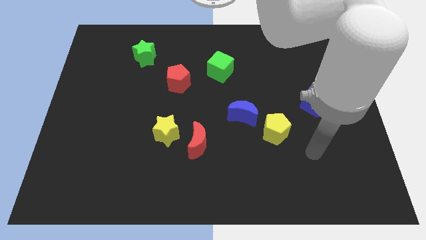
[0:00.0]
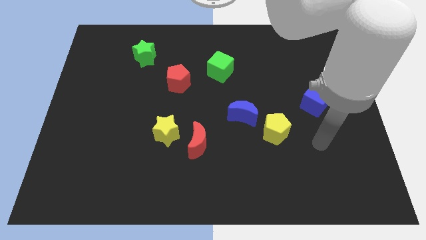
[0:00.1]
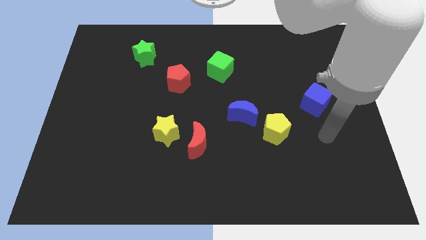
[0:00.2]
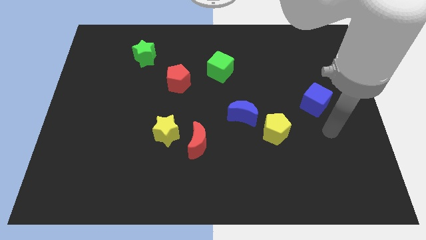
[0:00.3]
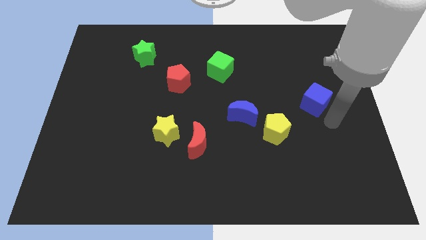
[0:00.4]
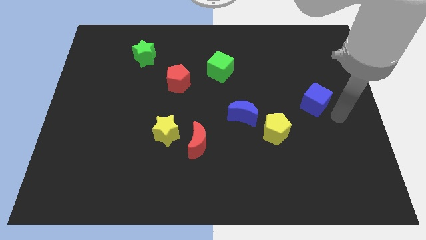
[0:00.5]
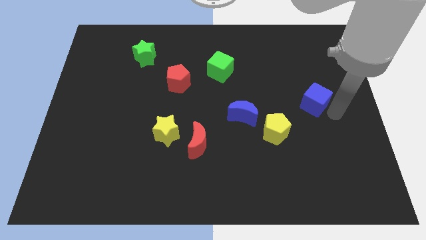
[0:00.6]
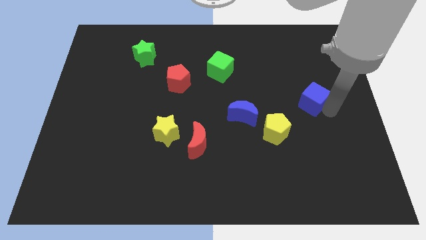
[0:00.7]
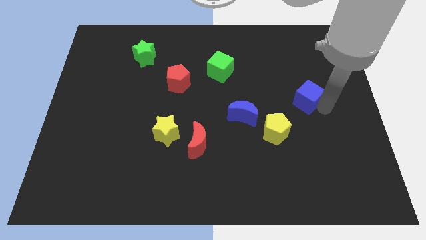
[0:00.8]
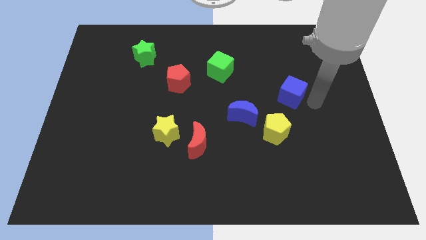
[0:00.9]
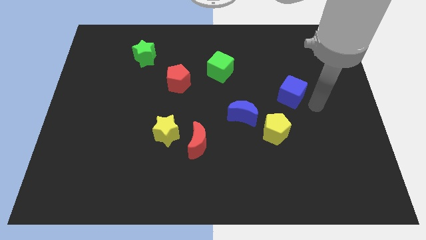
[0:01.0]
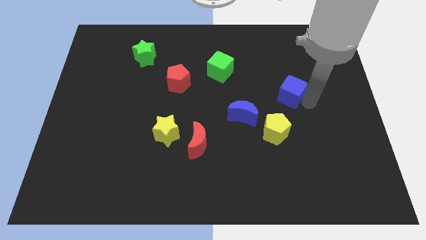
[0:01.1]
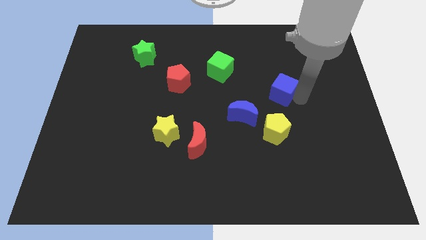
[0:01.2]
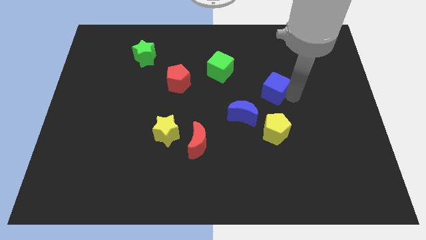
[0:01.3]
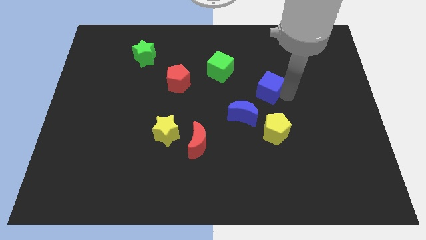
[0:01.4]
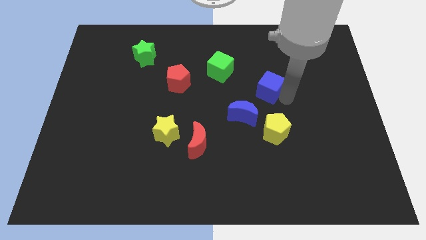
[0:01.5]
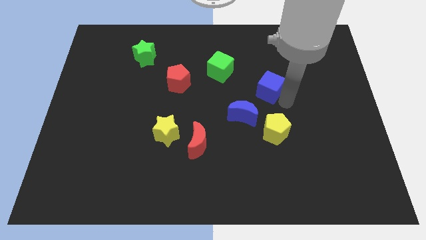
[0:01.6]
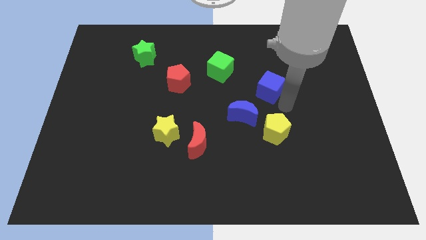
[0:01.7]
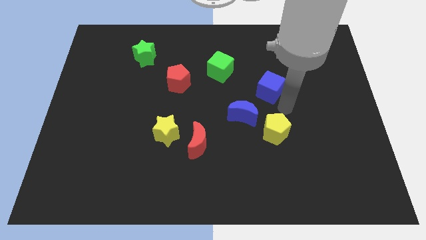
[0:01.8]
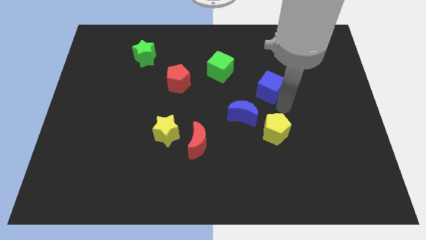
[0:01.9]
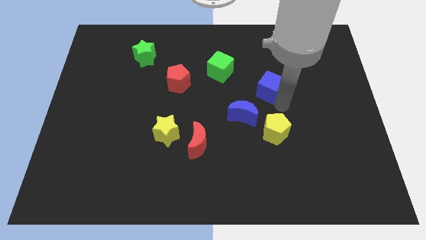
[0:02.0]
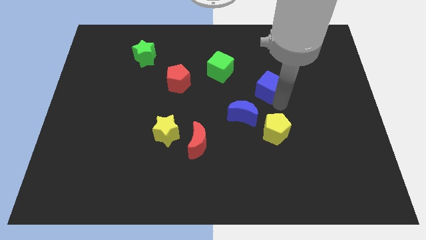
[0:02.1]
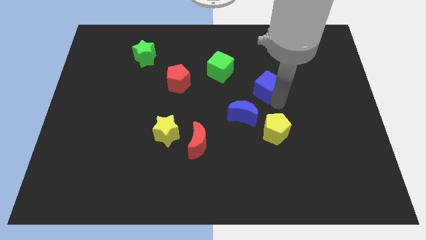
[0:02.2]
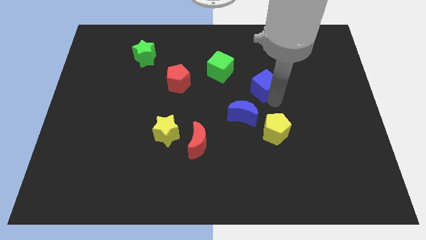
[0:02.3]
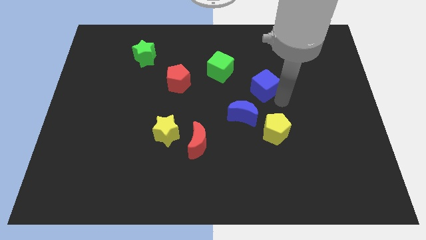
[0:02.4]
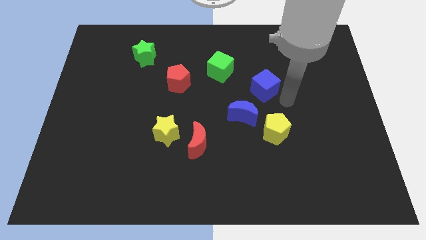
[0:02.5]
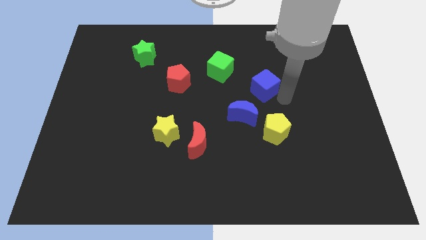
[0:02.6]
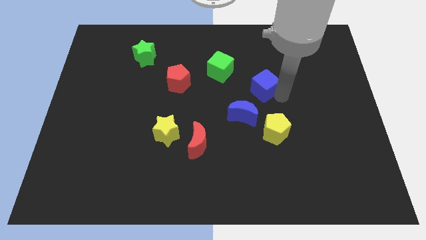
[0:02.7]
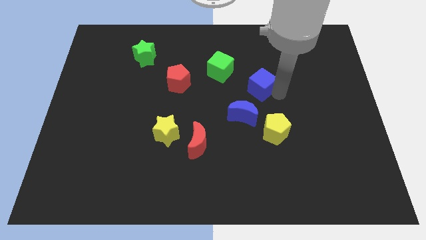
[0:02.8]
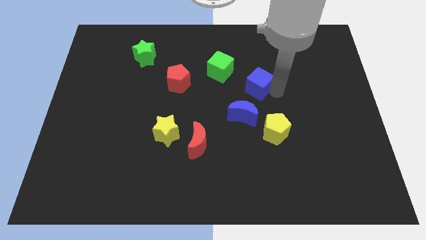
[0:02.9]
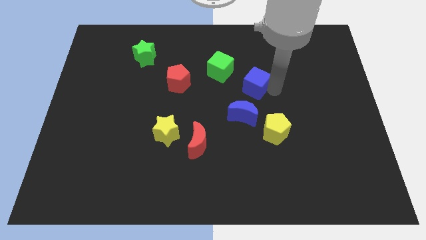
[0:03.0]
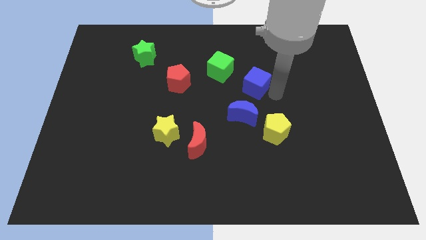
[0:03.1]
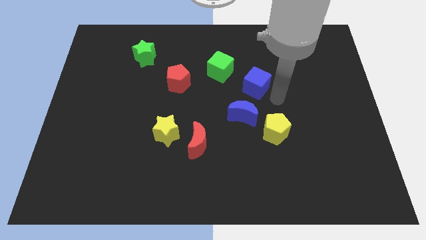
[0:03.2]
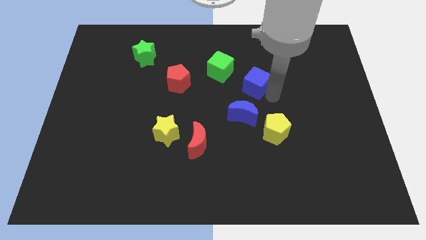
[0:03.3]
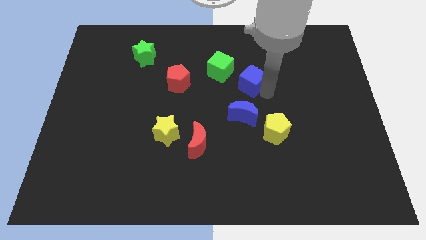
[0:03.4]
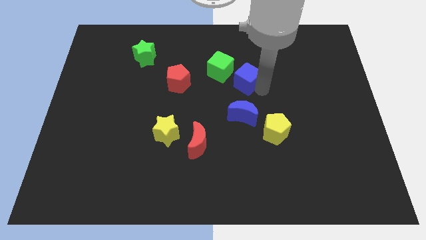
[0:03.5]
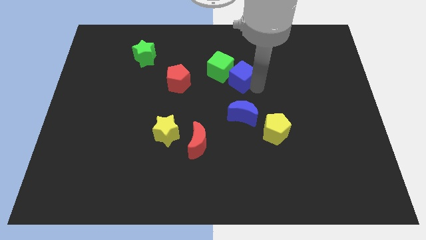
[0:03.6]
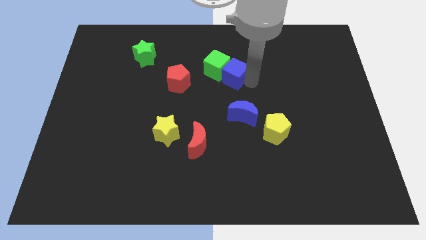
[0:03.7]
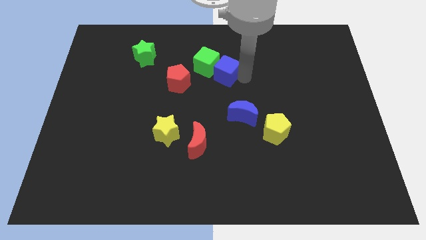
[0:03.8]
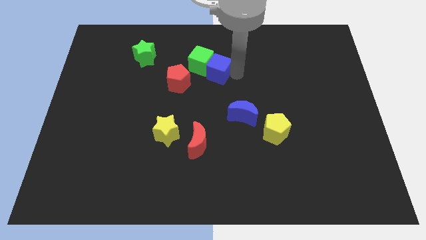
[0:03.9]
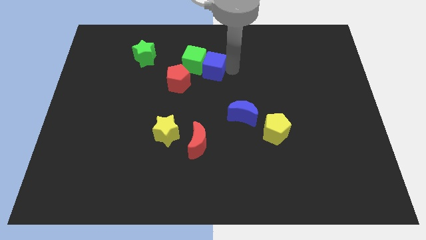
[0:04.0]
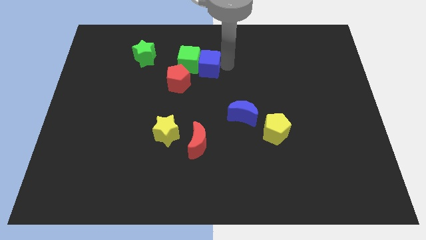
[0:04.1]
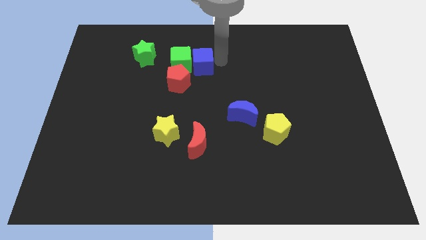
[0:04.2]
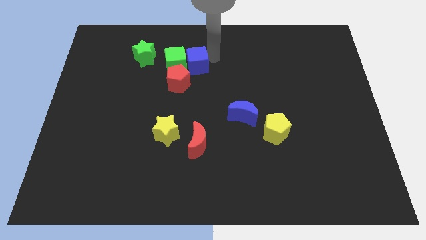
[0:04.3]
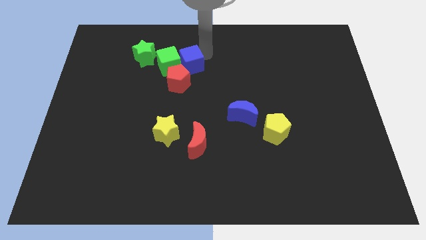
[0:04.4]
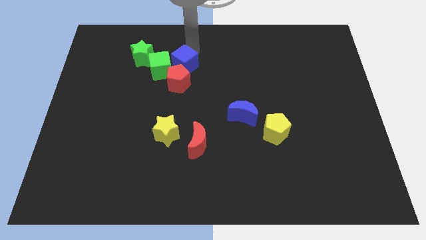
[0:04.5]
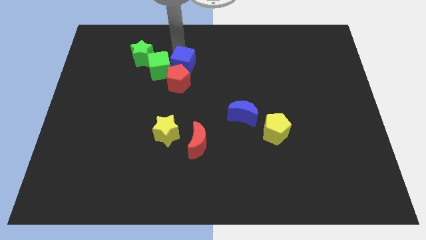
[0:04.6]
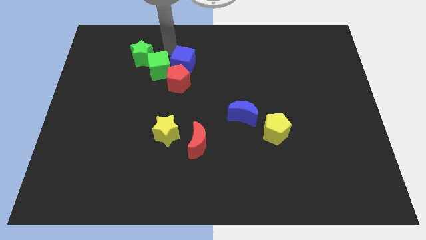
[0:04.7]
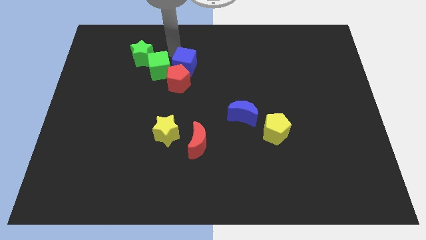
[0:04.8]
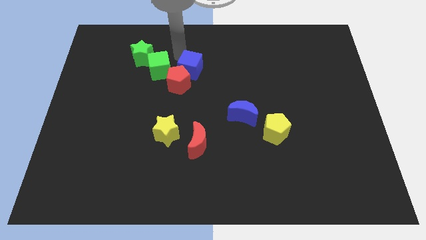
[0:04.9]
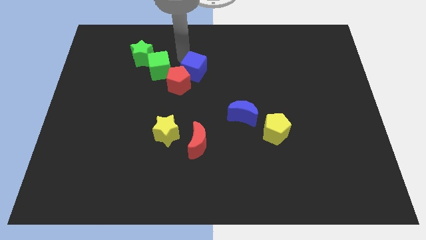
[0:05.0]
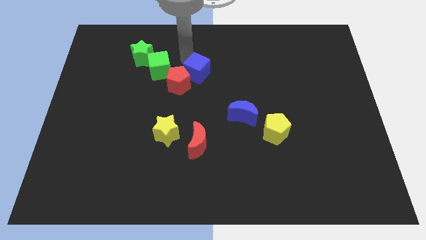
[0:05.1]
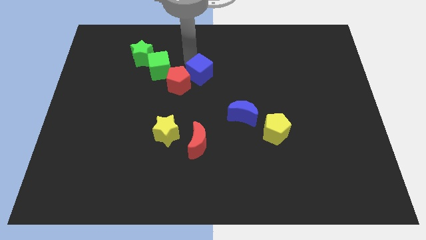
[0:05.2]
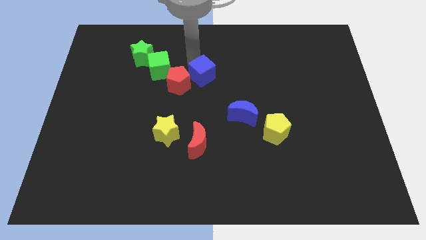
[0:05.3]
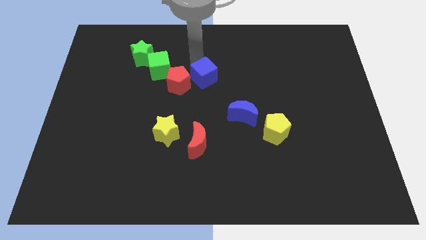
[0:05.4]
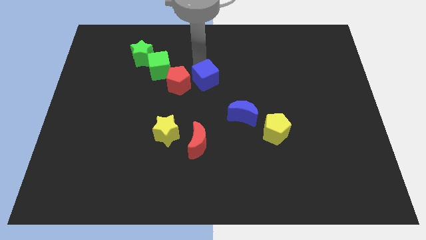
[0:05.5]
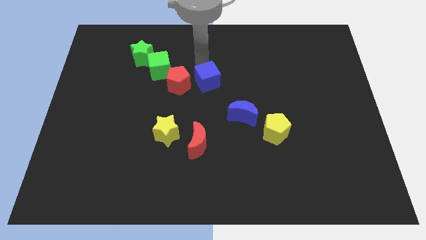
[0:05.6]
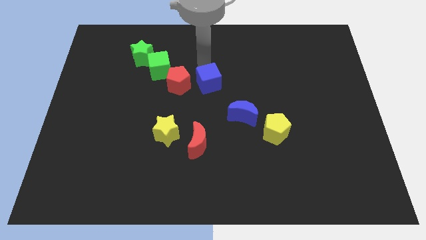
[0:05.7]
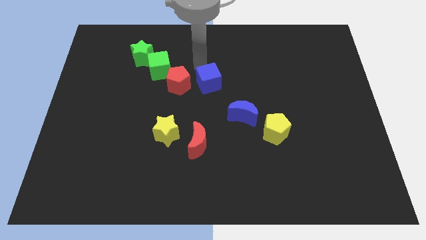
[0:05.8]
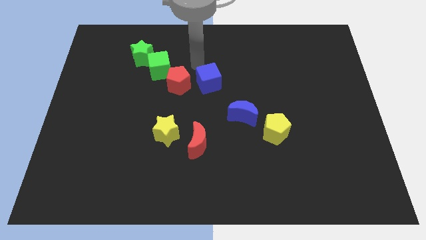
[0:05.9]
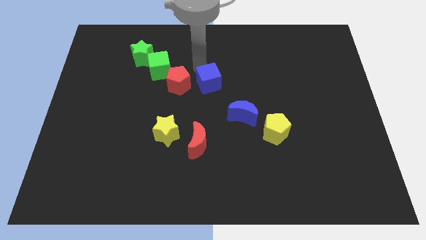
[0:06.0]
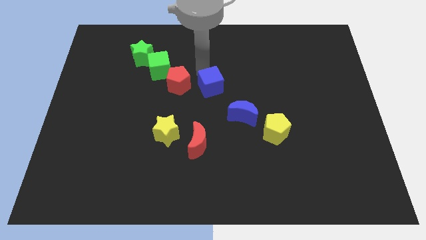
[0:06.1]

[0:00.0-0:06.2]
push the blue cube diagonally up and to the left of the blue moon

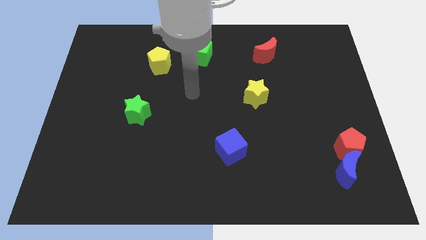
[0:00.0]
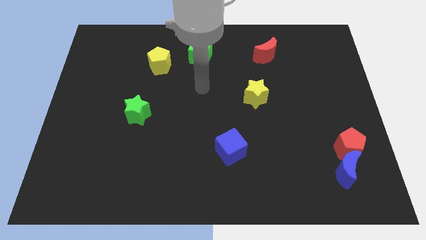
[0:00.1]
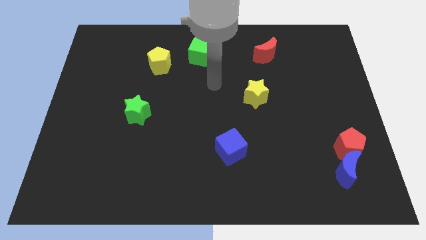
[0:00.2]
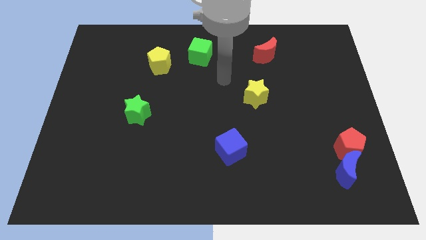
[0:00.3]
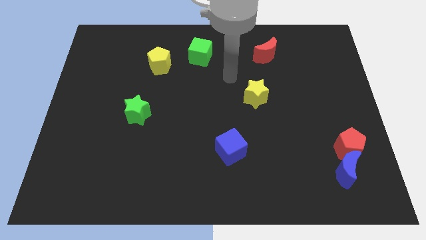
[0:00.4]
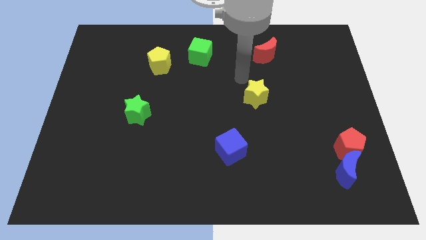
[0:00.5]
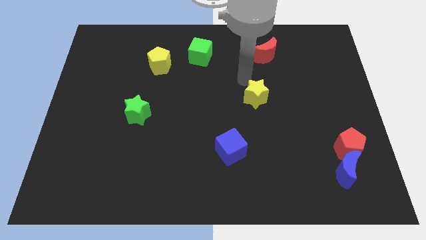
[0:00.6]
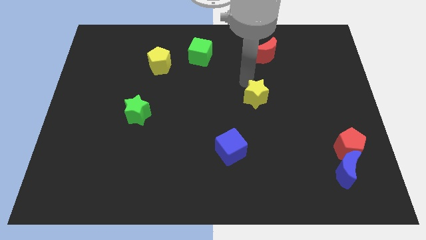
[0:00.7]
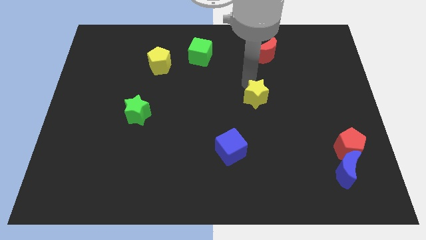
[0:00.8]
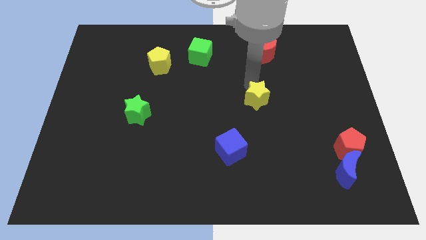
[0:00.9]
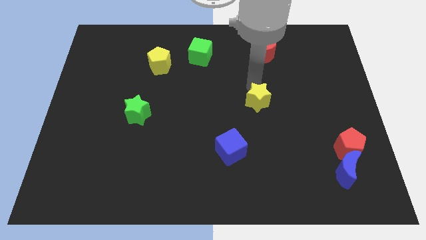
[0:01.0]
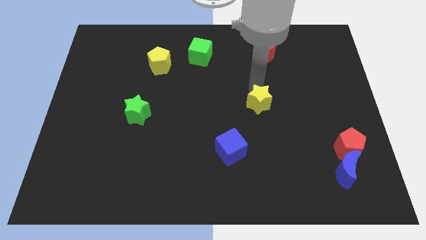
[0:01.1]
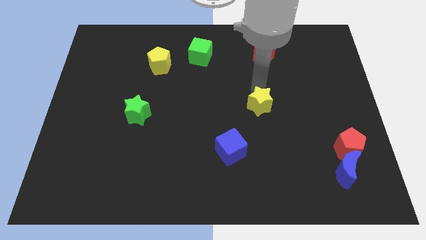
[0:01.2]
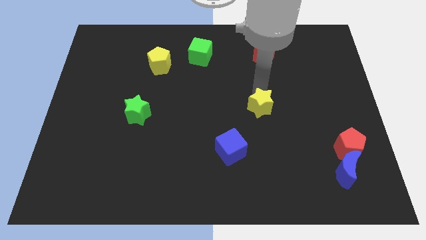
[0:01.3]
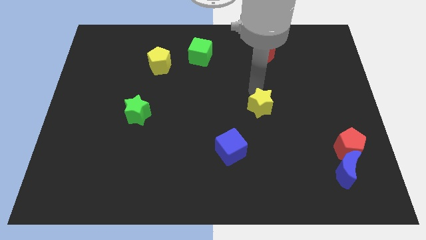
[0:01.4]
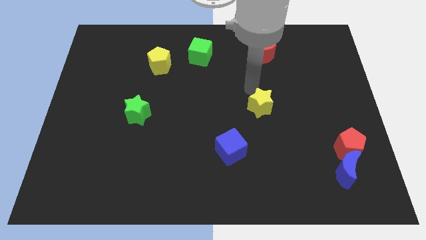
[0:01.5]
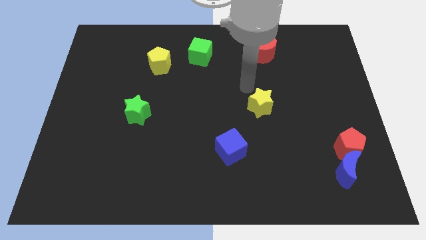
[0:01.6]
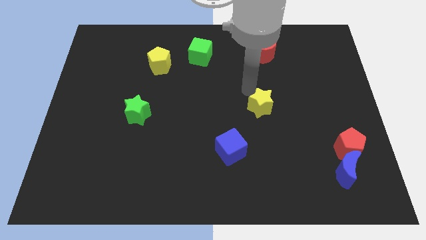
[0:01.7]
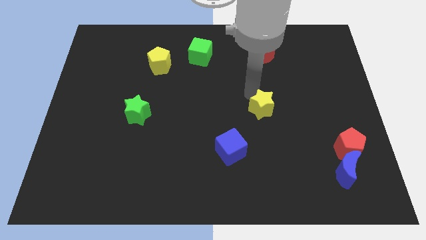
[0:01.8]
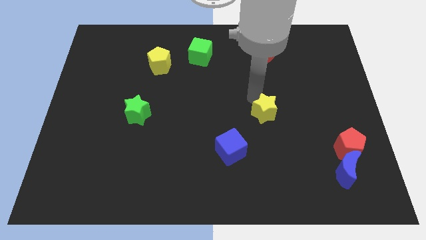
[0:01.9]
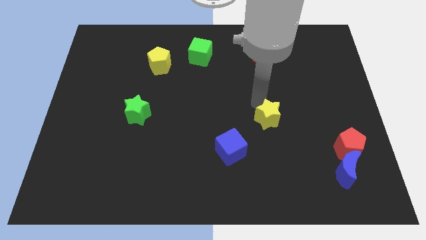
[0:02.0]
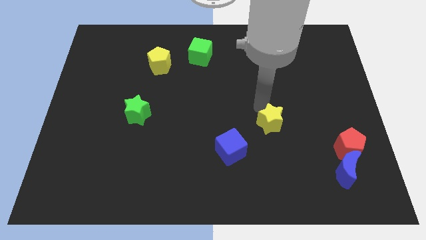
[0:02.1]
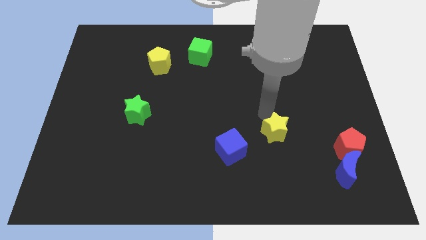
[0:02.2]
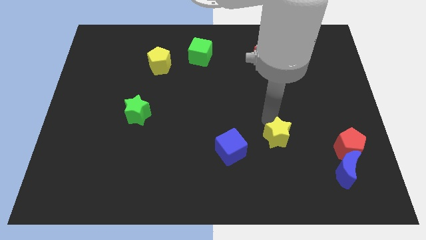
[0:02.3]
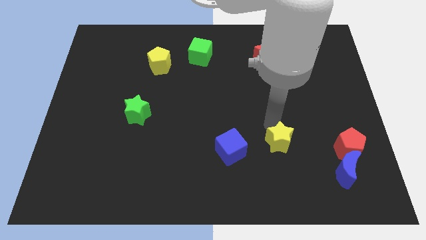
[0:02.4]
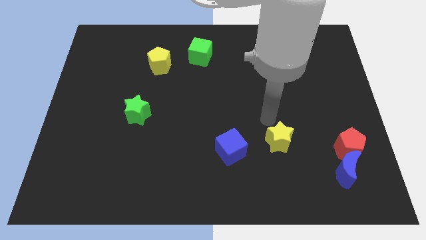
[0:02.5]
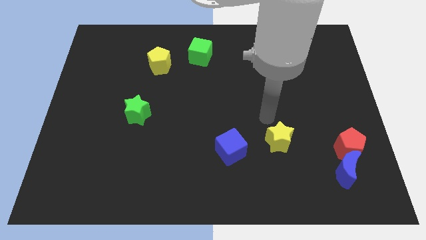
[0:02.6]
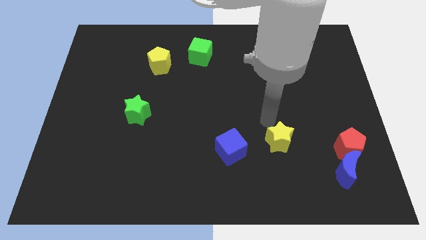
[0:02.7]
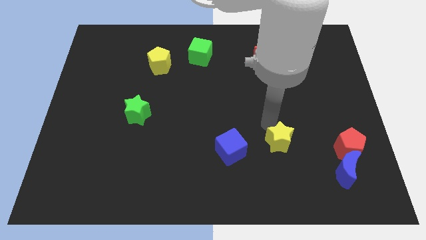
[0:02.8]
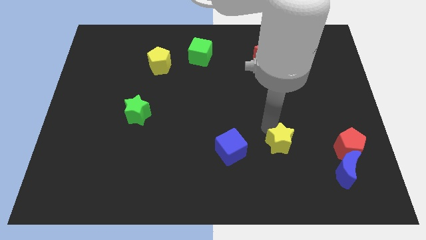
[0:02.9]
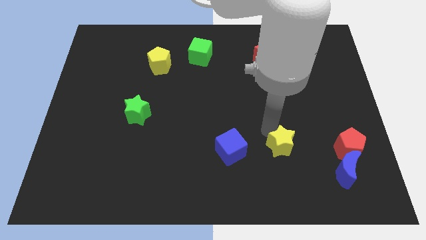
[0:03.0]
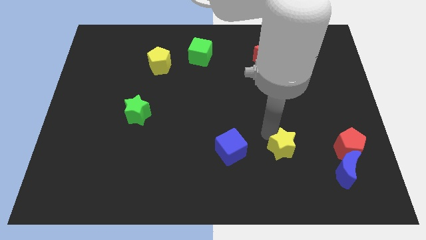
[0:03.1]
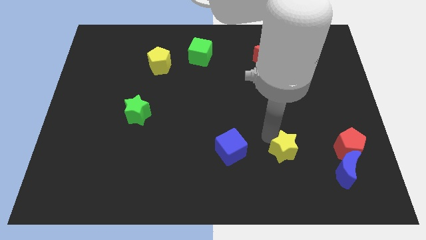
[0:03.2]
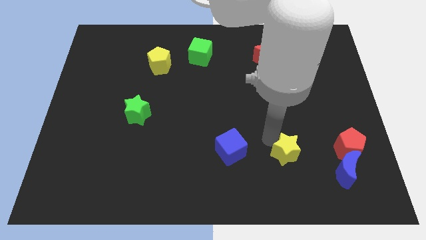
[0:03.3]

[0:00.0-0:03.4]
push the yellow star just left of the blue moon
